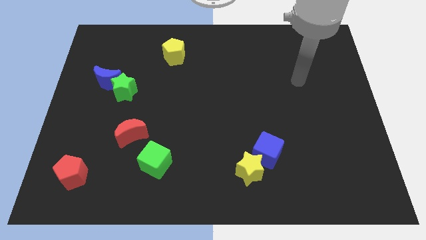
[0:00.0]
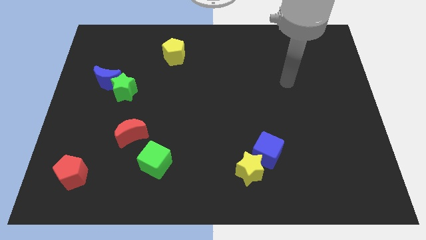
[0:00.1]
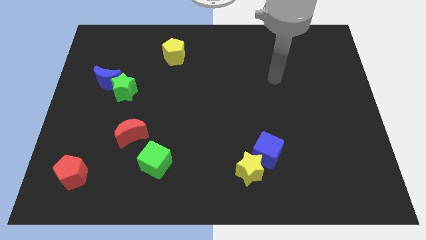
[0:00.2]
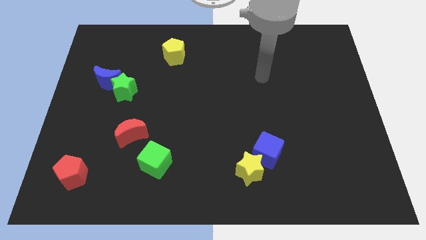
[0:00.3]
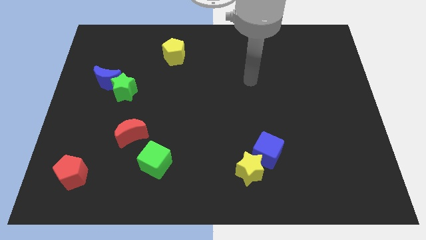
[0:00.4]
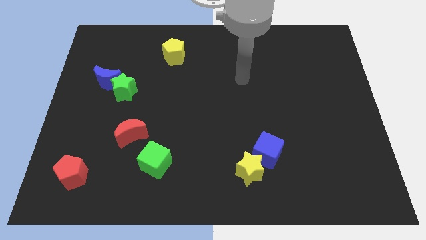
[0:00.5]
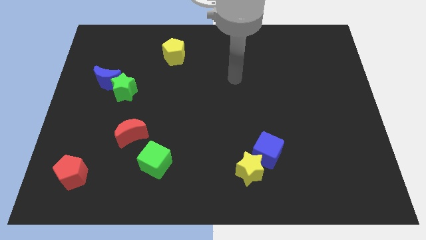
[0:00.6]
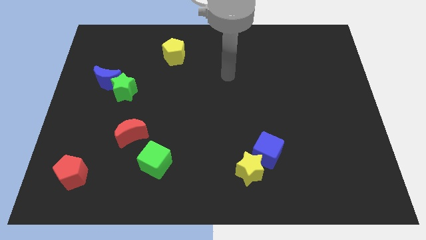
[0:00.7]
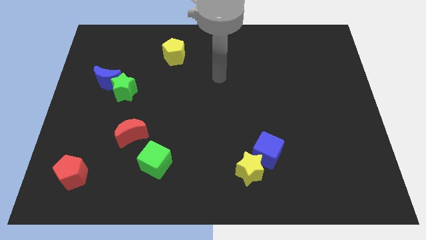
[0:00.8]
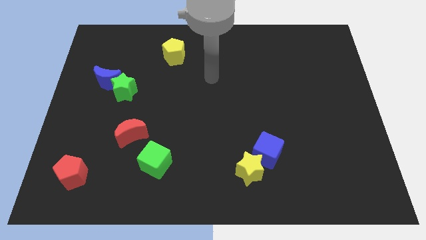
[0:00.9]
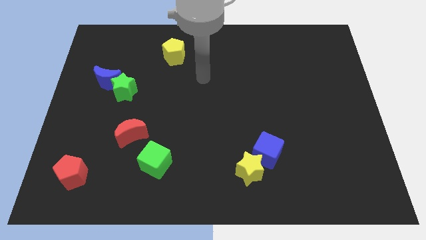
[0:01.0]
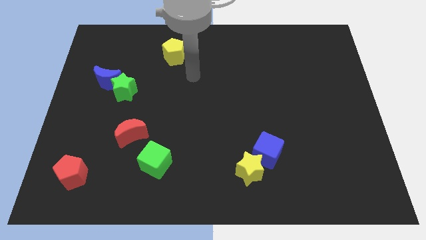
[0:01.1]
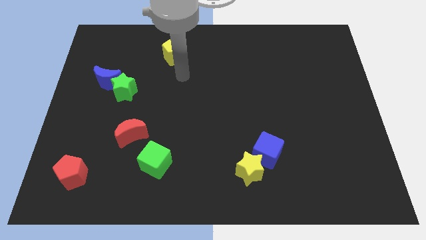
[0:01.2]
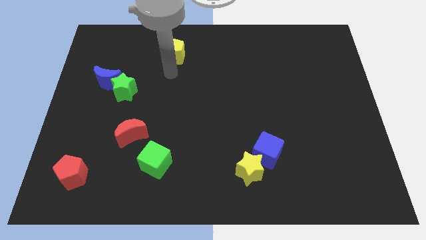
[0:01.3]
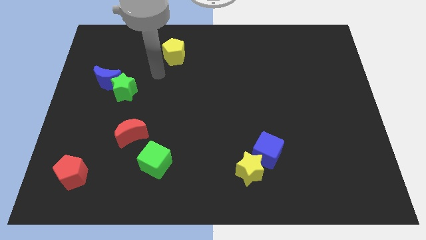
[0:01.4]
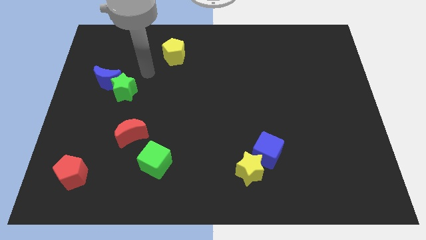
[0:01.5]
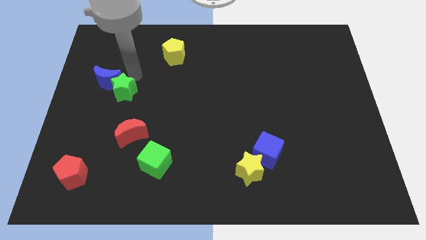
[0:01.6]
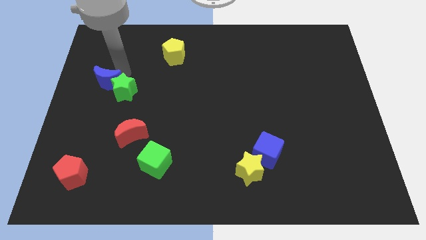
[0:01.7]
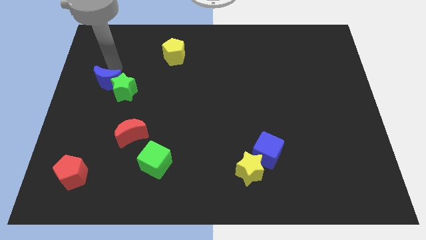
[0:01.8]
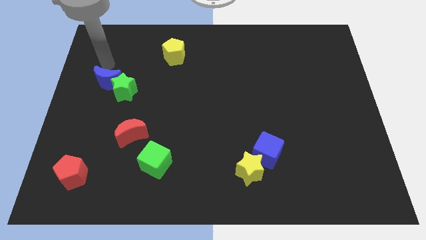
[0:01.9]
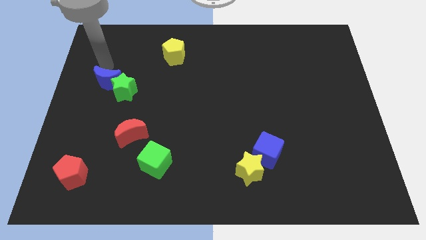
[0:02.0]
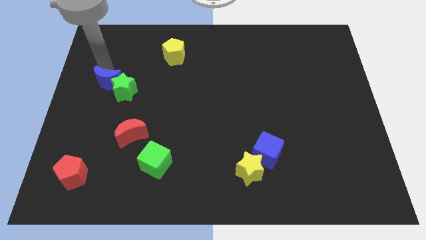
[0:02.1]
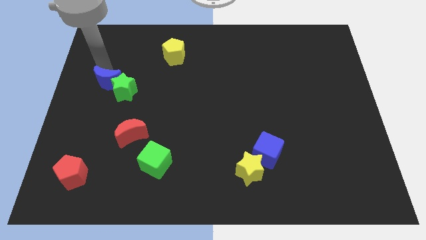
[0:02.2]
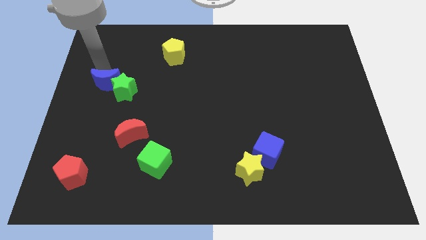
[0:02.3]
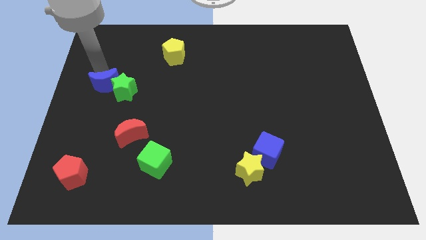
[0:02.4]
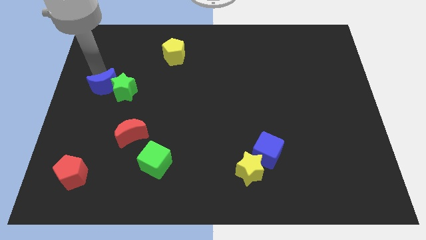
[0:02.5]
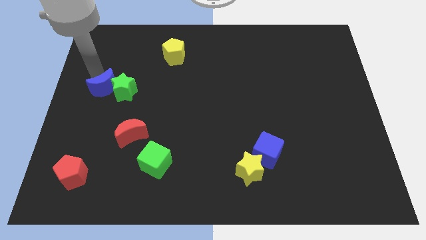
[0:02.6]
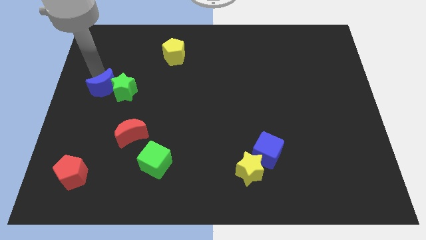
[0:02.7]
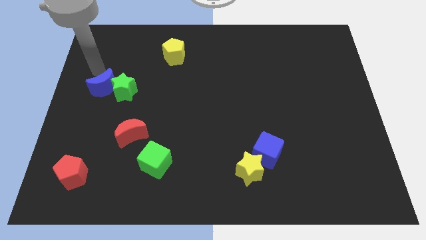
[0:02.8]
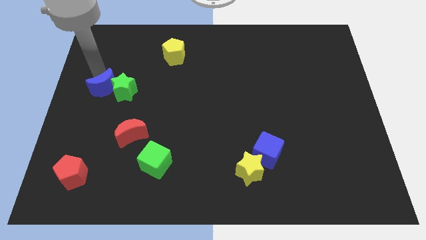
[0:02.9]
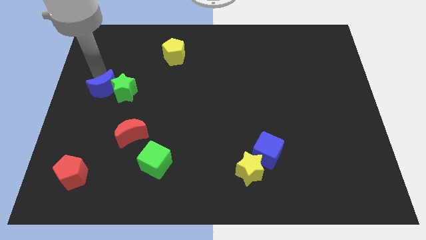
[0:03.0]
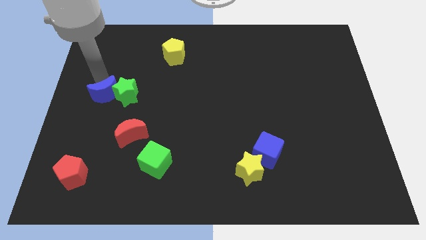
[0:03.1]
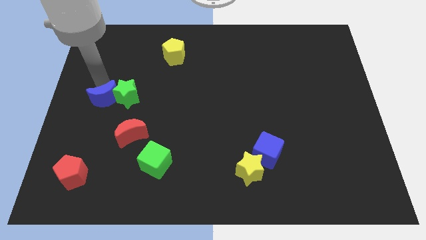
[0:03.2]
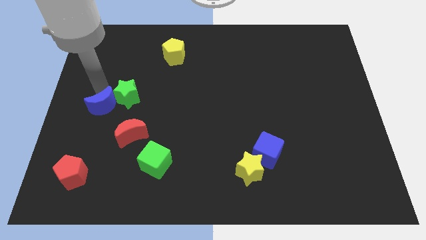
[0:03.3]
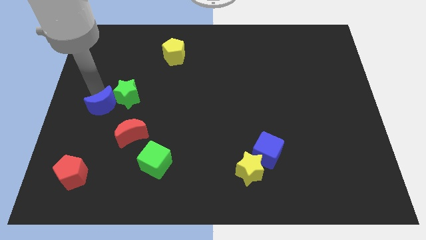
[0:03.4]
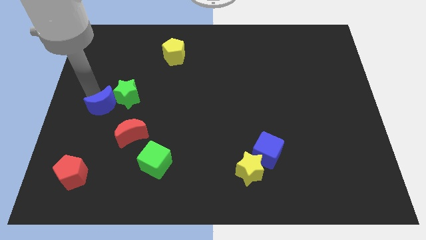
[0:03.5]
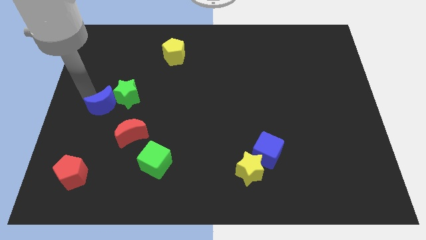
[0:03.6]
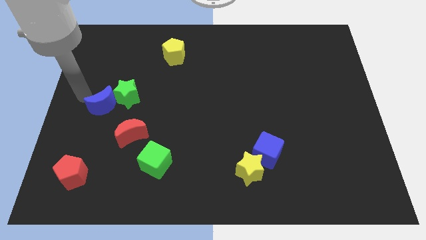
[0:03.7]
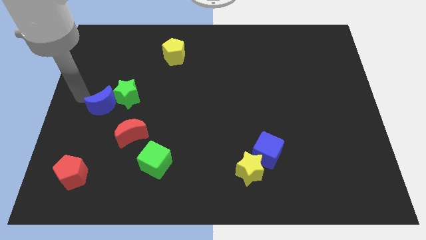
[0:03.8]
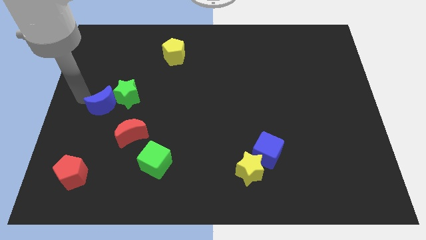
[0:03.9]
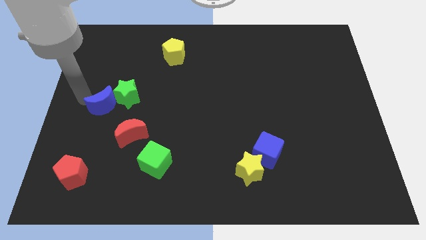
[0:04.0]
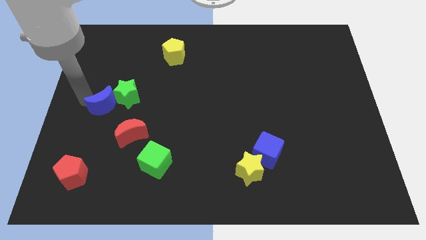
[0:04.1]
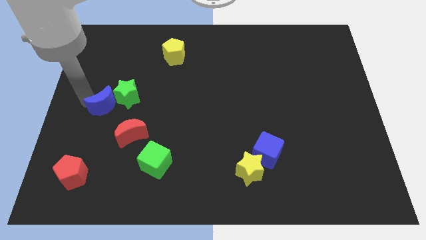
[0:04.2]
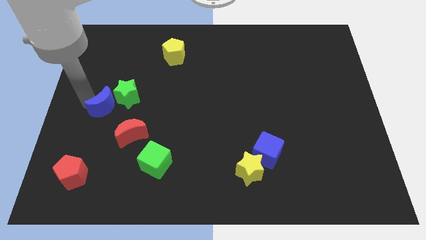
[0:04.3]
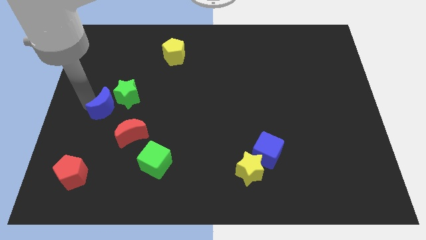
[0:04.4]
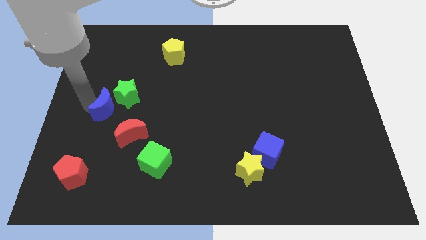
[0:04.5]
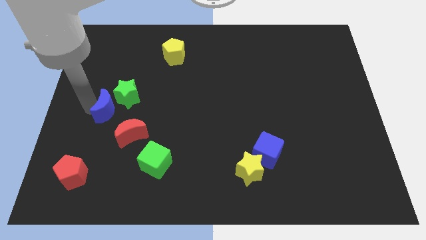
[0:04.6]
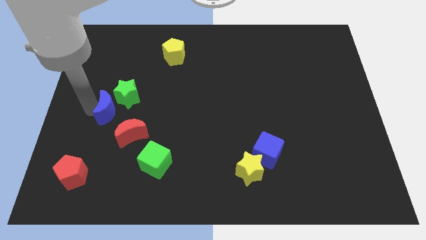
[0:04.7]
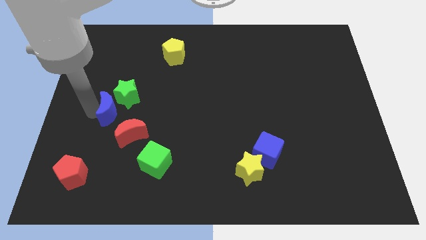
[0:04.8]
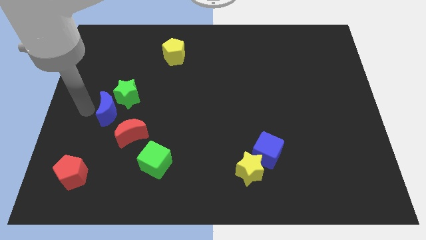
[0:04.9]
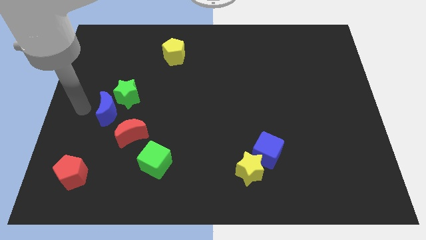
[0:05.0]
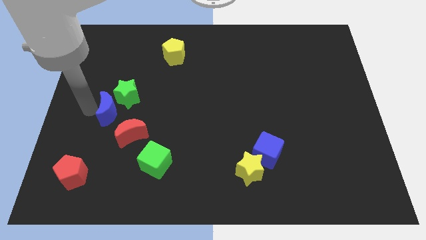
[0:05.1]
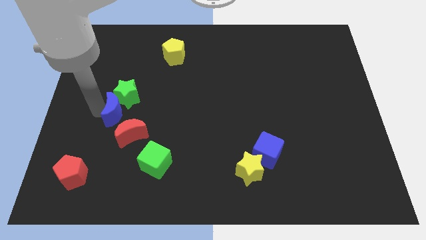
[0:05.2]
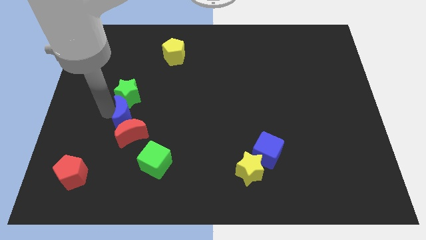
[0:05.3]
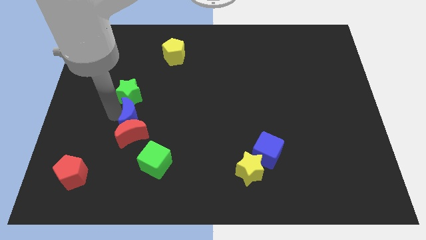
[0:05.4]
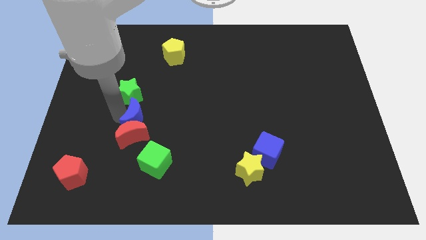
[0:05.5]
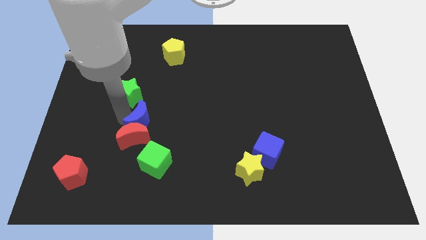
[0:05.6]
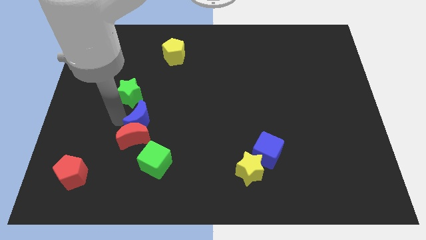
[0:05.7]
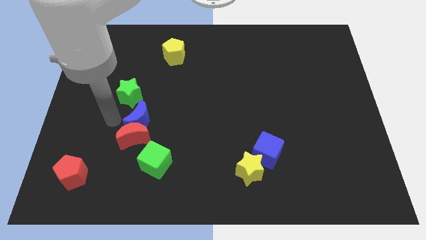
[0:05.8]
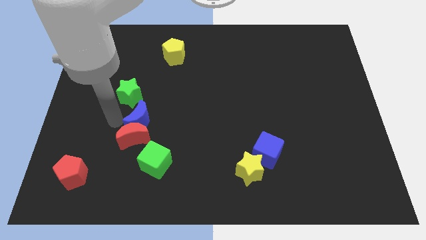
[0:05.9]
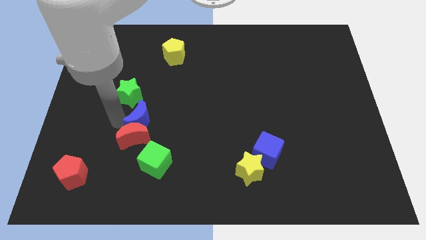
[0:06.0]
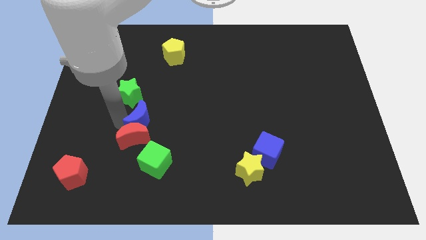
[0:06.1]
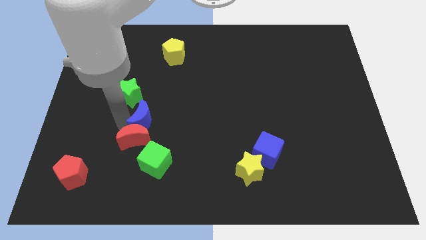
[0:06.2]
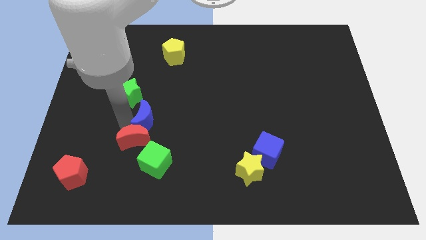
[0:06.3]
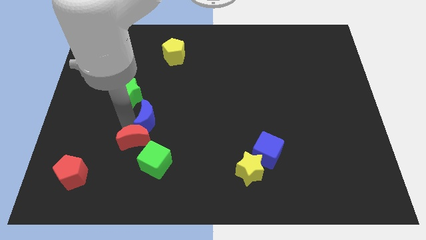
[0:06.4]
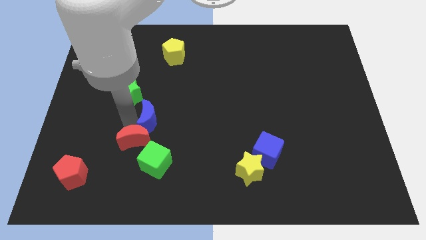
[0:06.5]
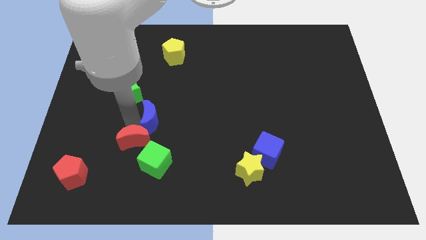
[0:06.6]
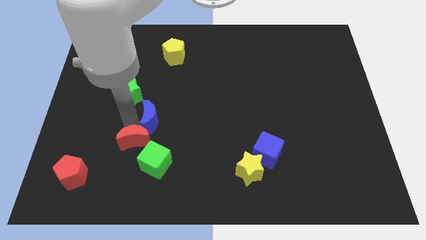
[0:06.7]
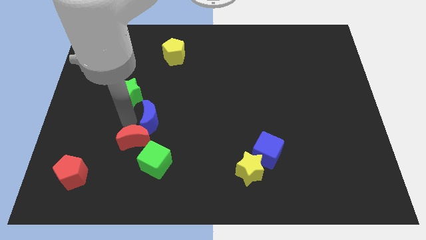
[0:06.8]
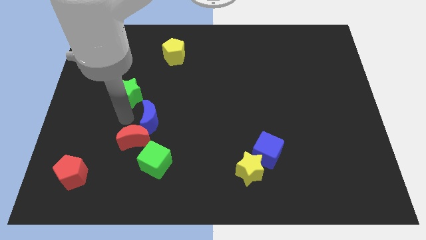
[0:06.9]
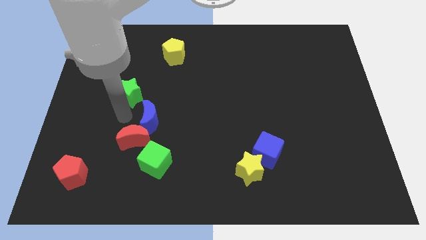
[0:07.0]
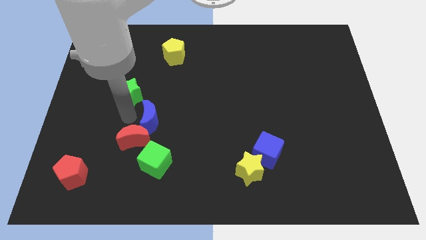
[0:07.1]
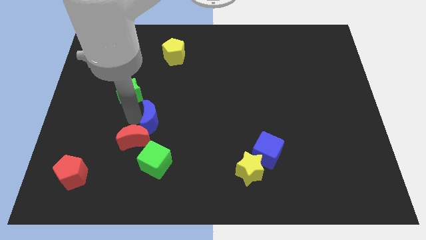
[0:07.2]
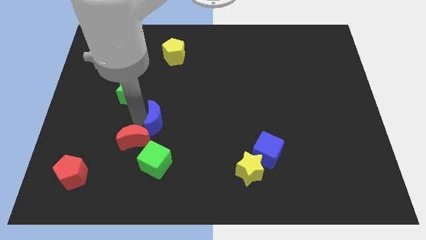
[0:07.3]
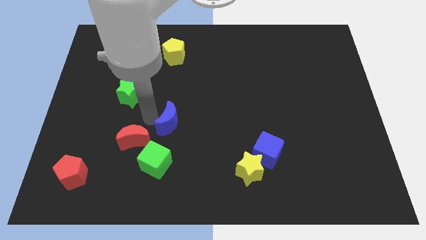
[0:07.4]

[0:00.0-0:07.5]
slide the blue moon down and to the right
